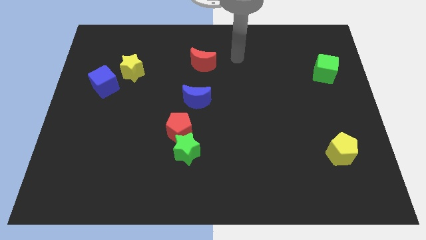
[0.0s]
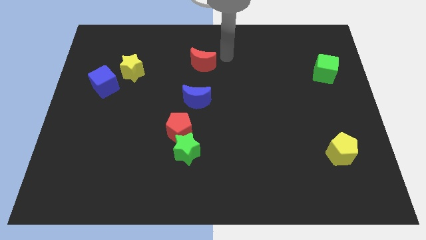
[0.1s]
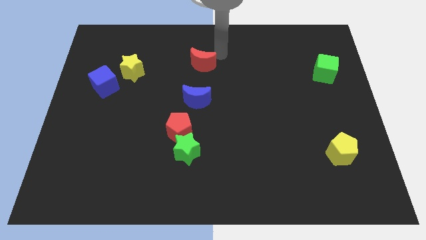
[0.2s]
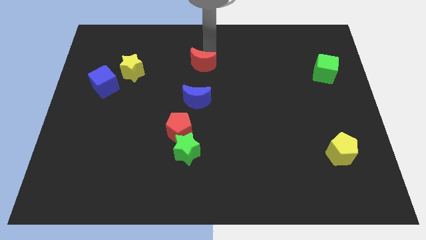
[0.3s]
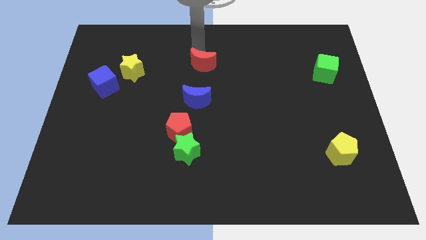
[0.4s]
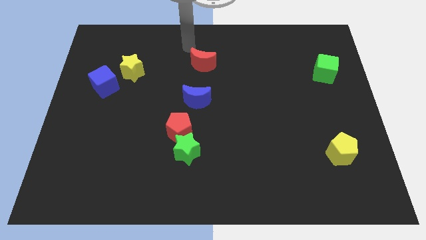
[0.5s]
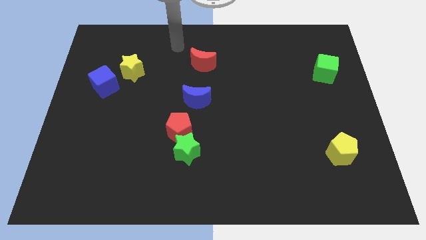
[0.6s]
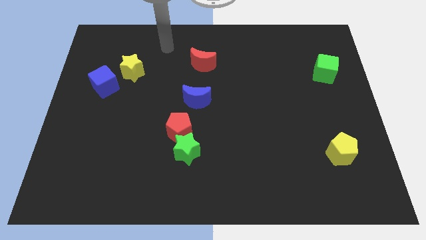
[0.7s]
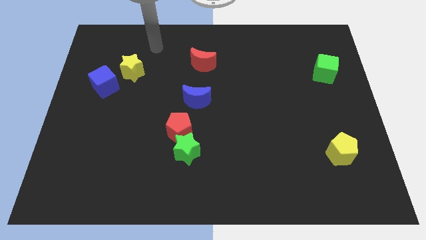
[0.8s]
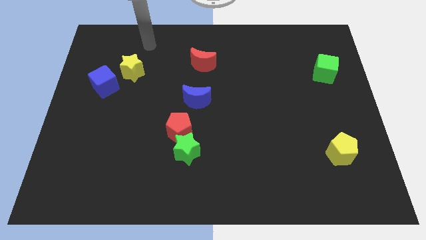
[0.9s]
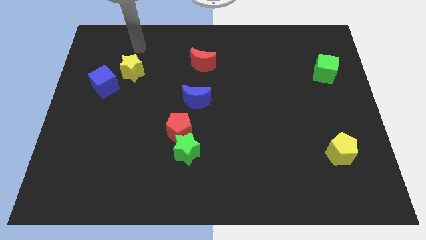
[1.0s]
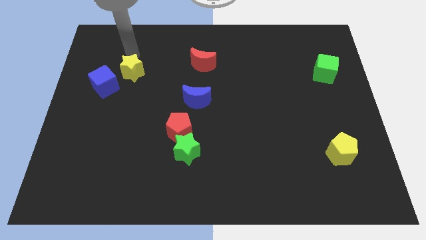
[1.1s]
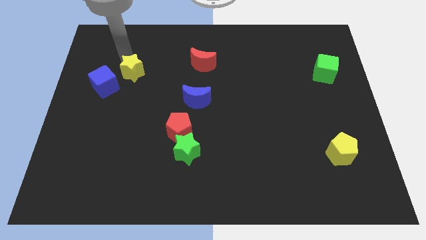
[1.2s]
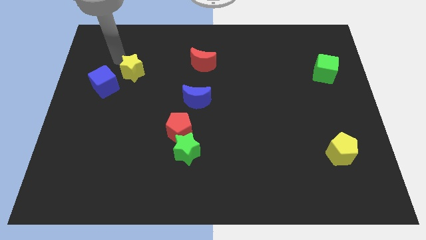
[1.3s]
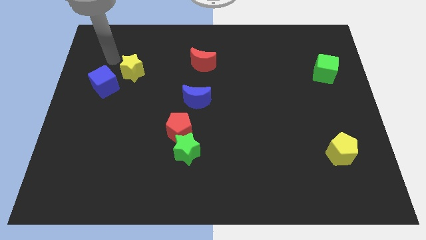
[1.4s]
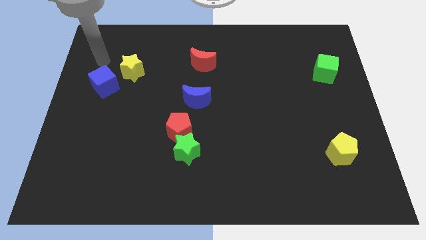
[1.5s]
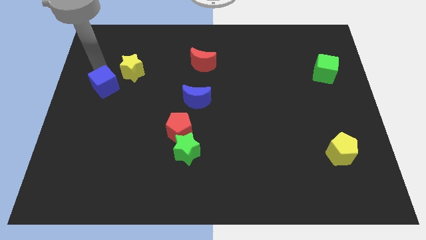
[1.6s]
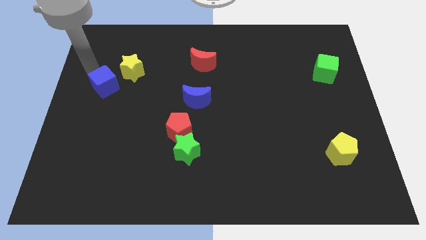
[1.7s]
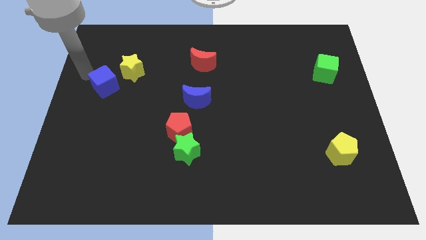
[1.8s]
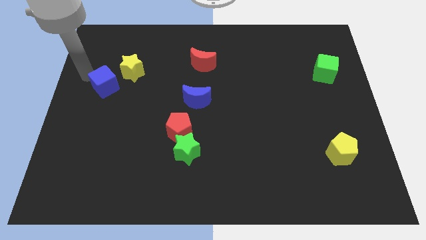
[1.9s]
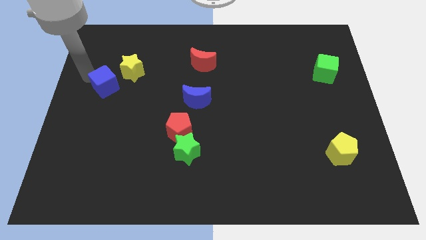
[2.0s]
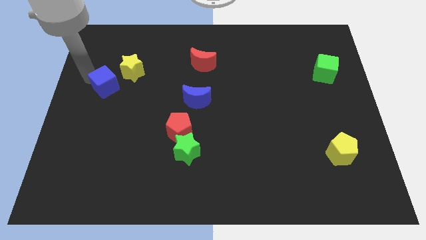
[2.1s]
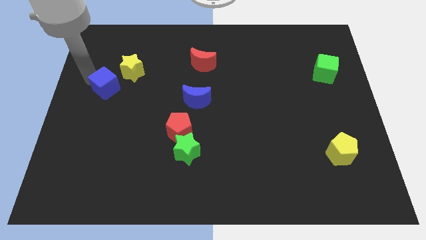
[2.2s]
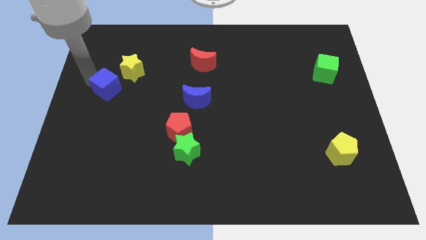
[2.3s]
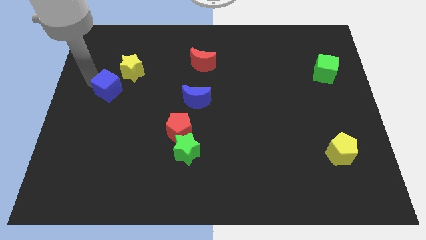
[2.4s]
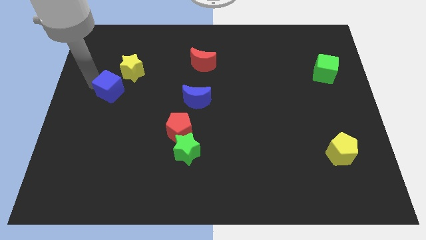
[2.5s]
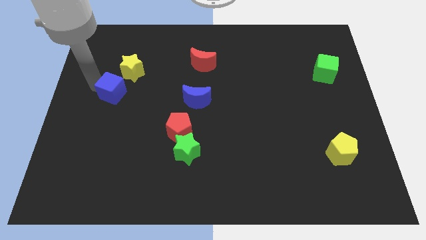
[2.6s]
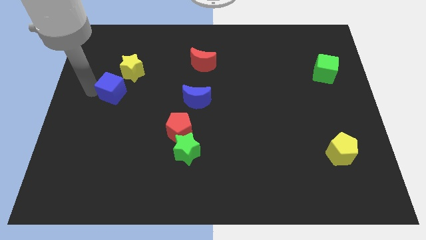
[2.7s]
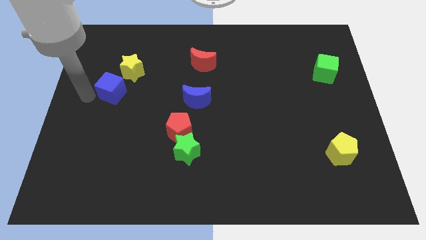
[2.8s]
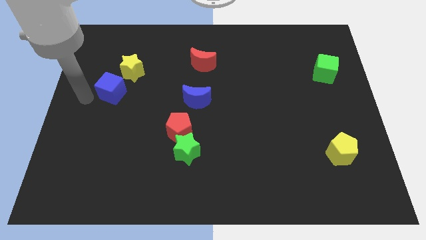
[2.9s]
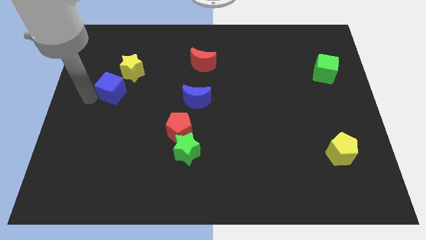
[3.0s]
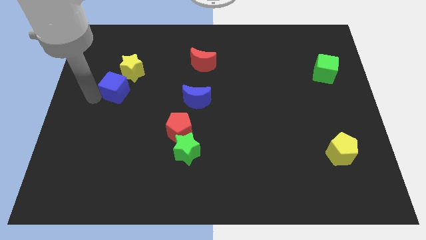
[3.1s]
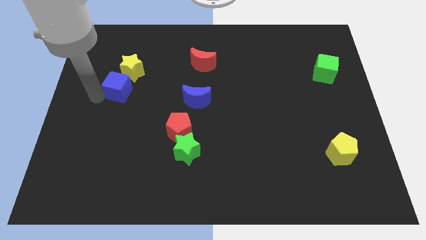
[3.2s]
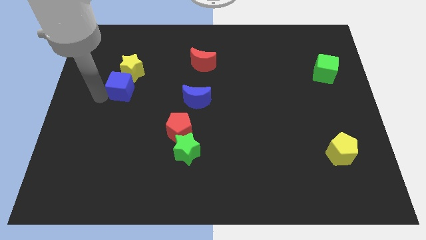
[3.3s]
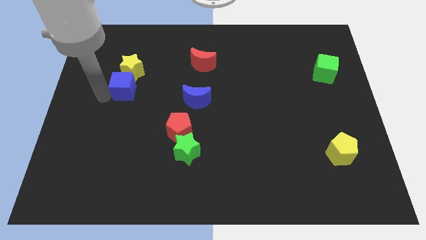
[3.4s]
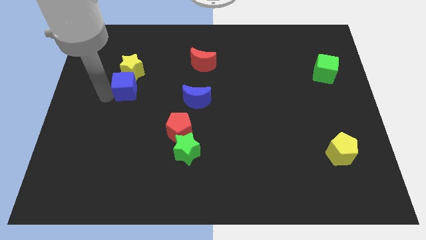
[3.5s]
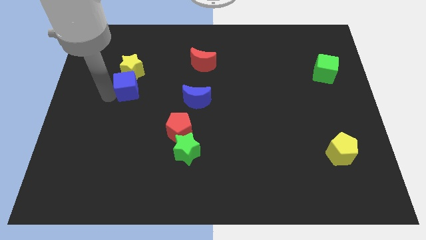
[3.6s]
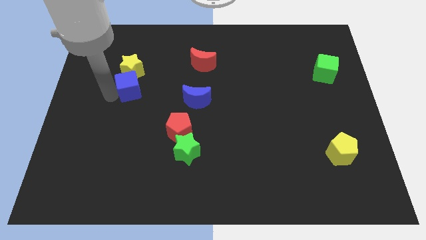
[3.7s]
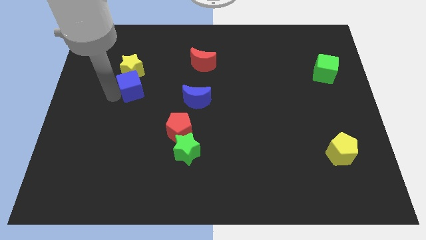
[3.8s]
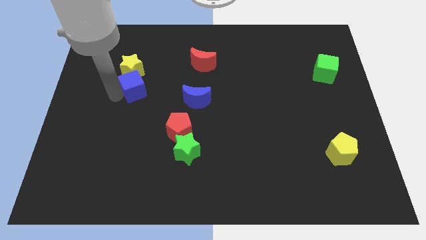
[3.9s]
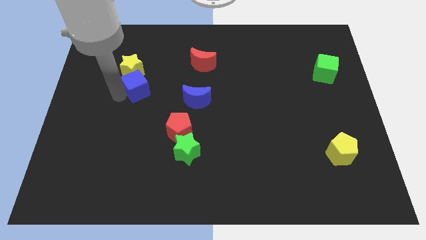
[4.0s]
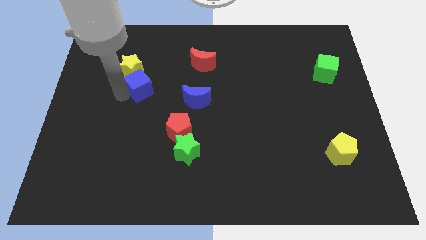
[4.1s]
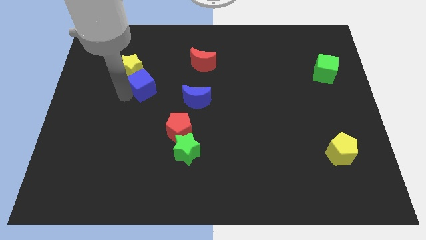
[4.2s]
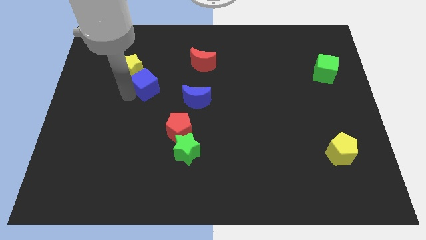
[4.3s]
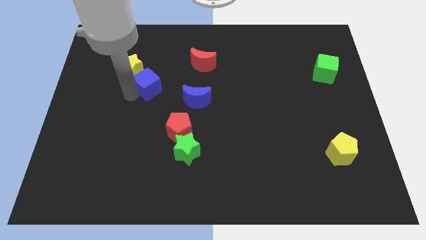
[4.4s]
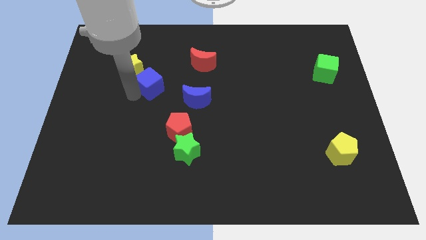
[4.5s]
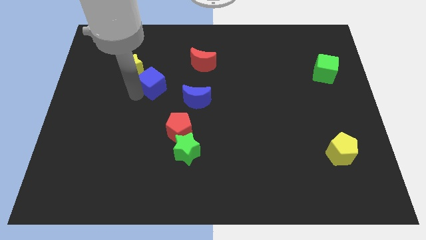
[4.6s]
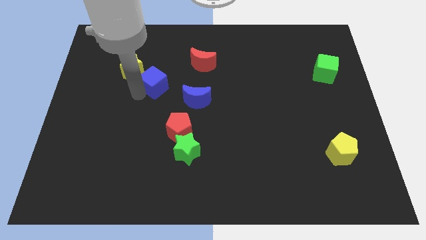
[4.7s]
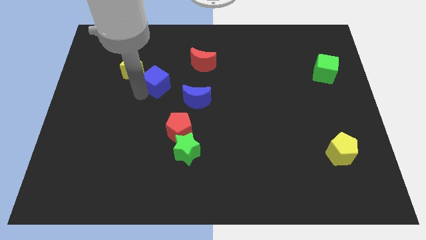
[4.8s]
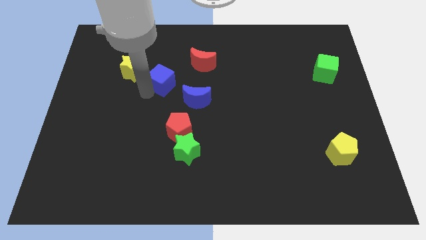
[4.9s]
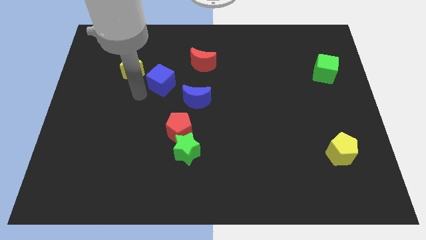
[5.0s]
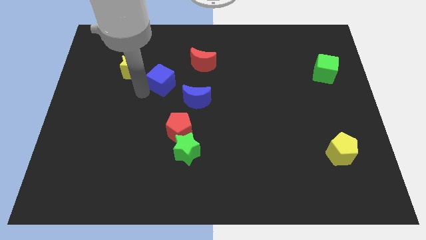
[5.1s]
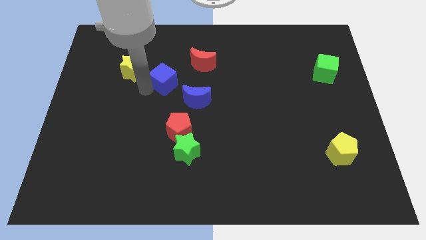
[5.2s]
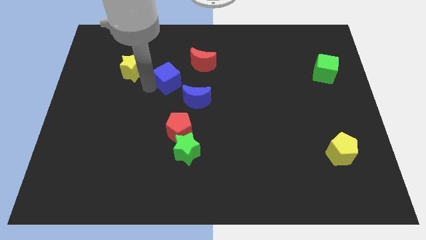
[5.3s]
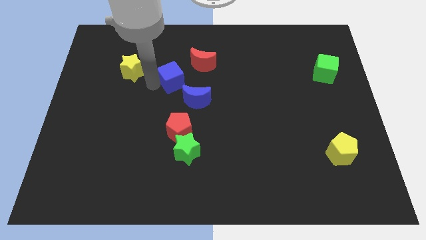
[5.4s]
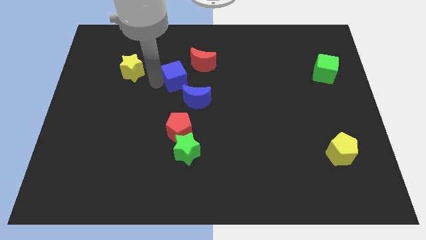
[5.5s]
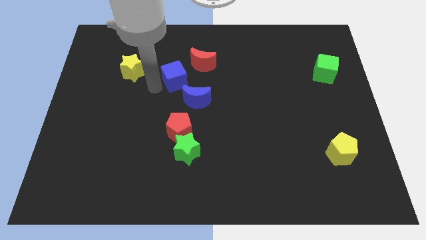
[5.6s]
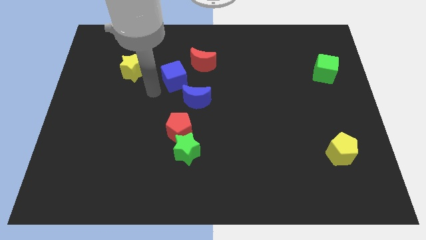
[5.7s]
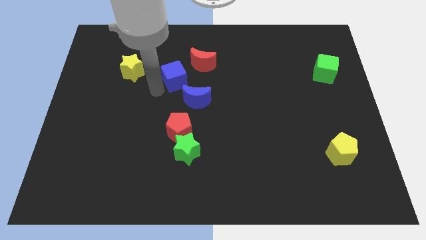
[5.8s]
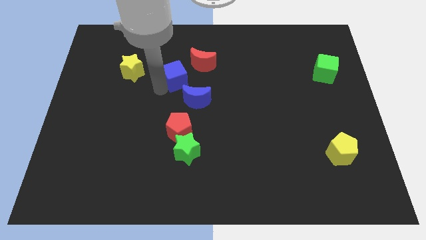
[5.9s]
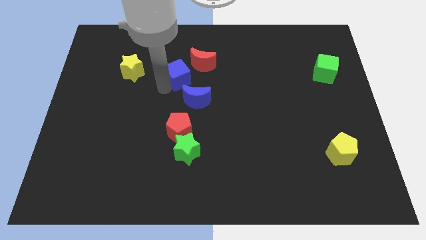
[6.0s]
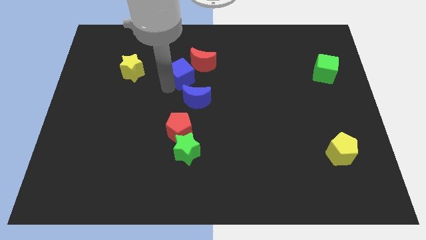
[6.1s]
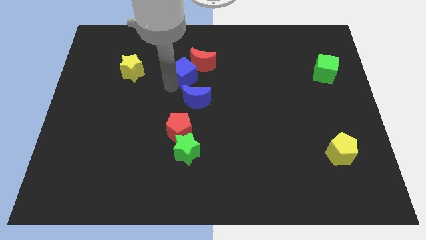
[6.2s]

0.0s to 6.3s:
move the blue cube to the red moon
